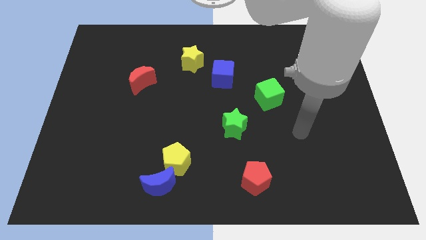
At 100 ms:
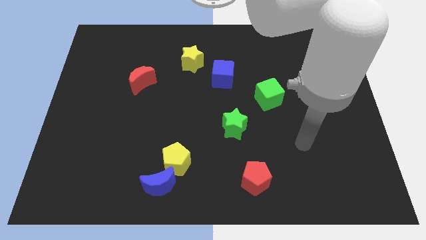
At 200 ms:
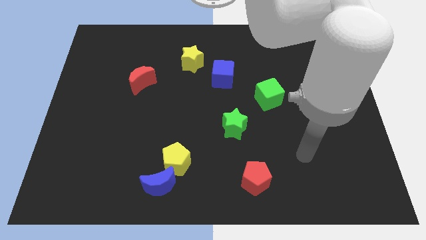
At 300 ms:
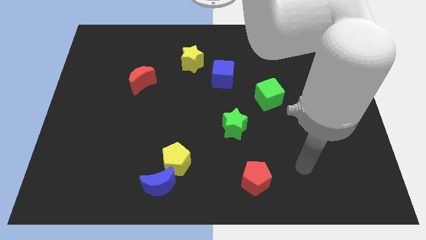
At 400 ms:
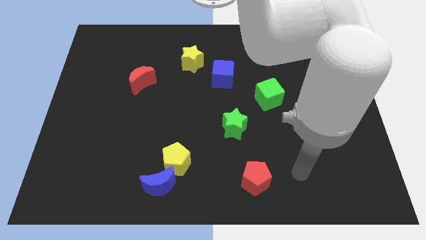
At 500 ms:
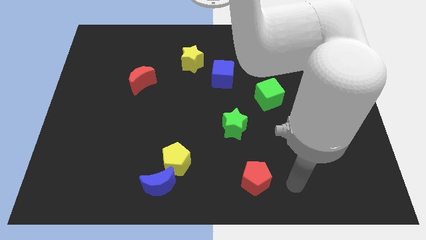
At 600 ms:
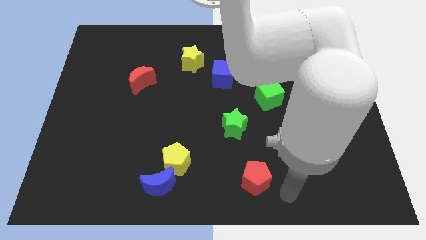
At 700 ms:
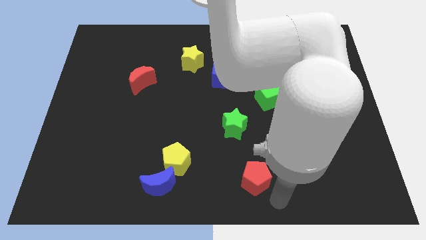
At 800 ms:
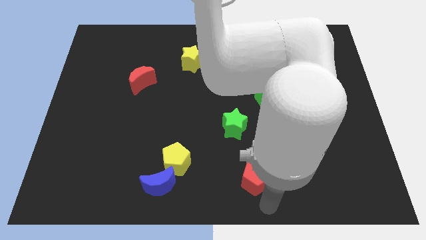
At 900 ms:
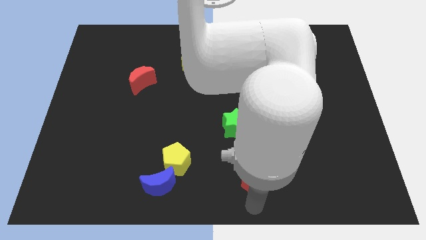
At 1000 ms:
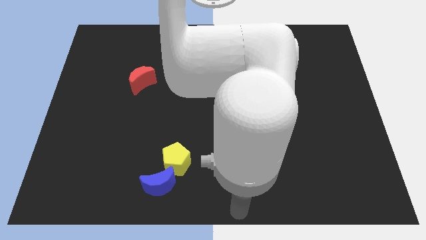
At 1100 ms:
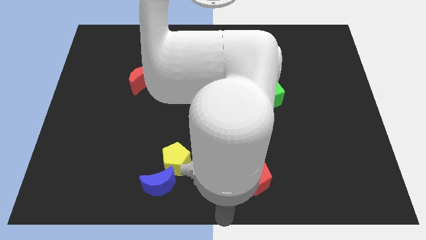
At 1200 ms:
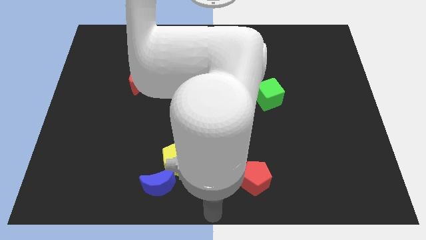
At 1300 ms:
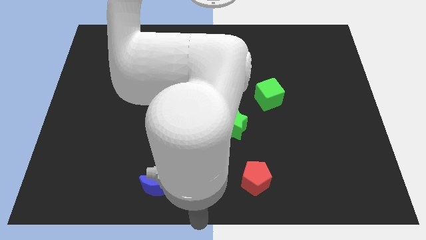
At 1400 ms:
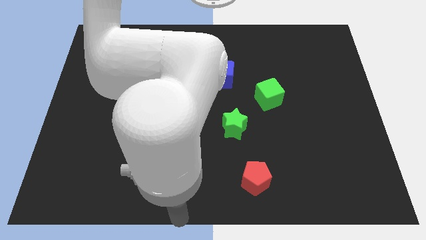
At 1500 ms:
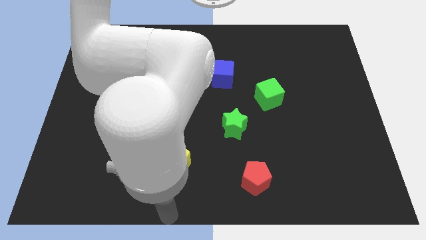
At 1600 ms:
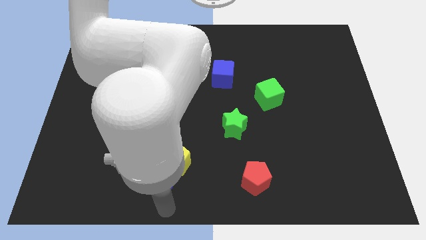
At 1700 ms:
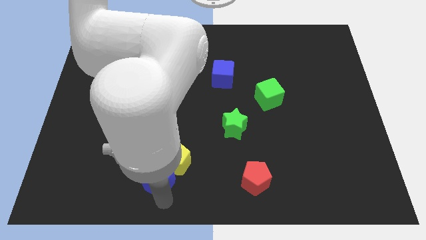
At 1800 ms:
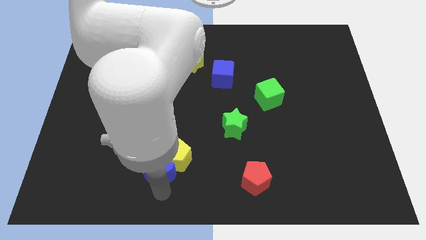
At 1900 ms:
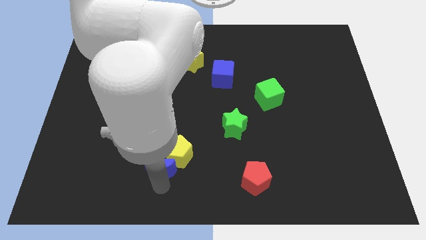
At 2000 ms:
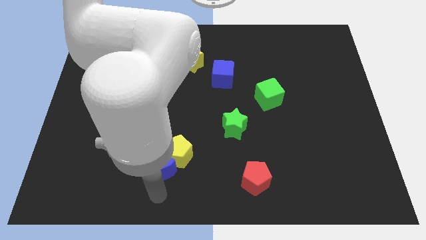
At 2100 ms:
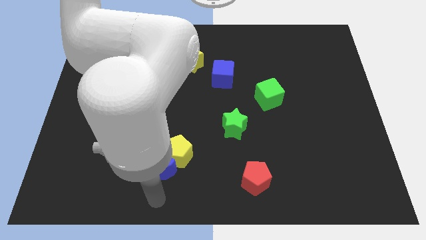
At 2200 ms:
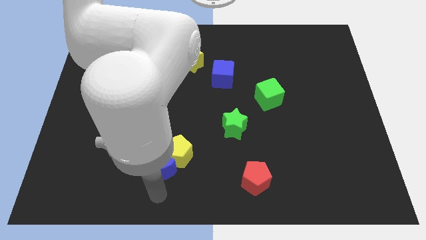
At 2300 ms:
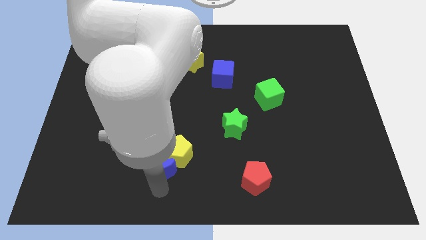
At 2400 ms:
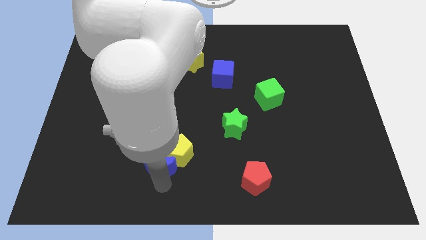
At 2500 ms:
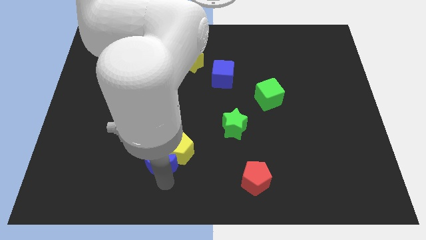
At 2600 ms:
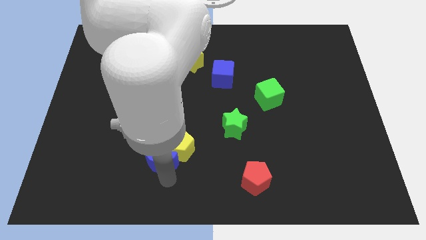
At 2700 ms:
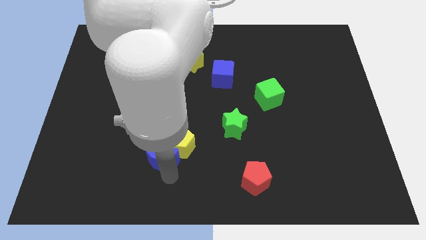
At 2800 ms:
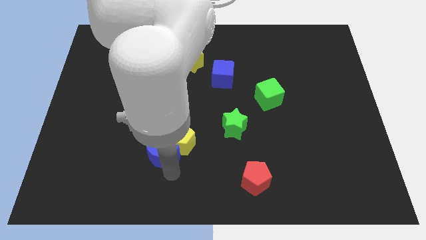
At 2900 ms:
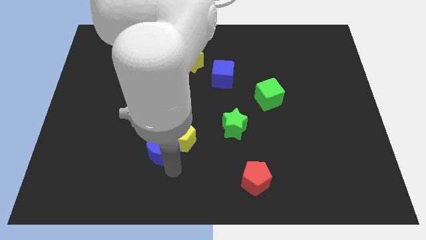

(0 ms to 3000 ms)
slide the blue moon upwards slightly

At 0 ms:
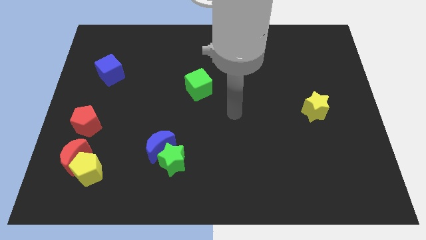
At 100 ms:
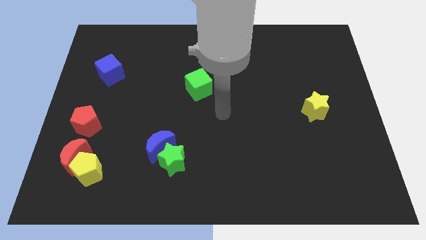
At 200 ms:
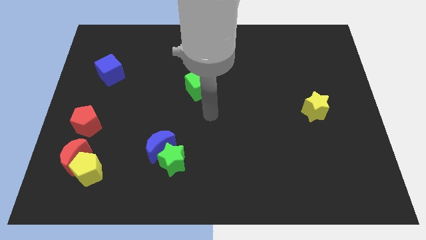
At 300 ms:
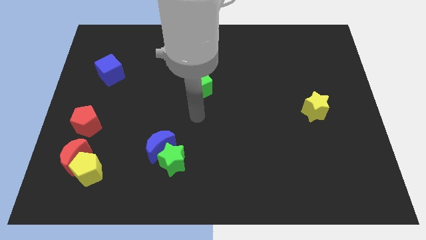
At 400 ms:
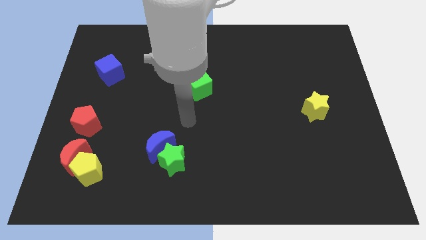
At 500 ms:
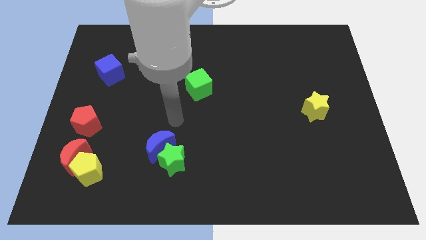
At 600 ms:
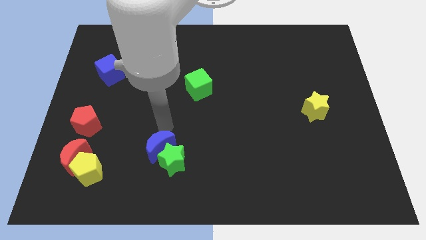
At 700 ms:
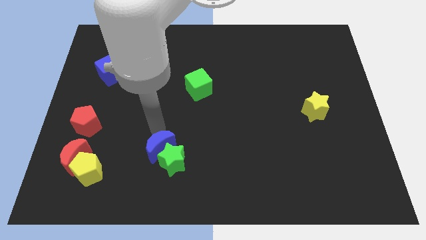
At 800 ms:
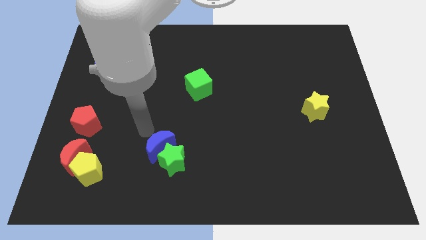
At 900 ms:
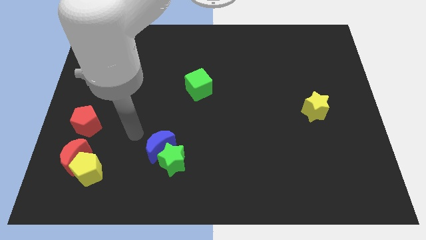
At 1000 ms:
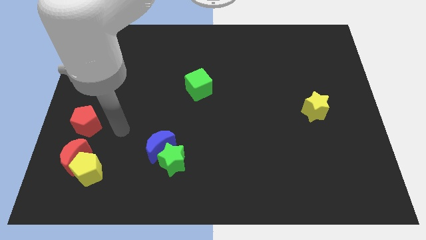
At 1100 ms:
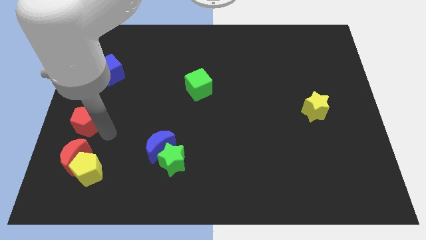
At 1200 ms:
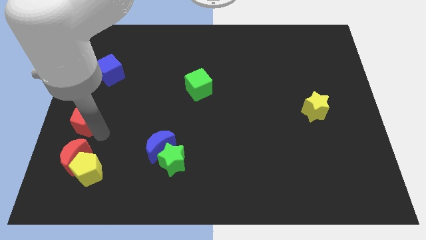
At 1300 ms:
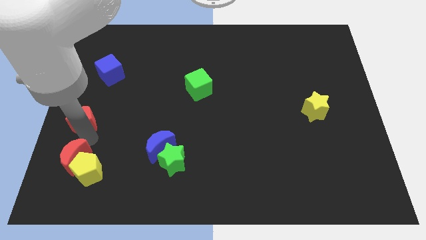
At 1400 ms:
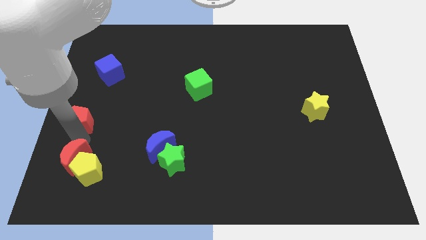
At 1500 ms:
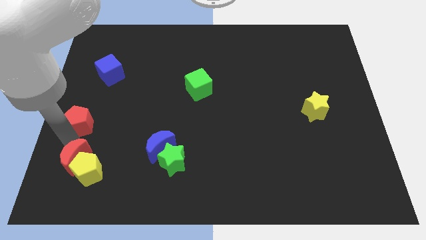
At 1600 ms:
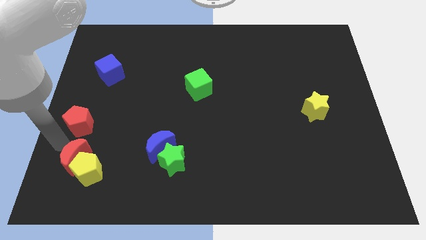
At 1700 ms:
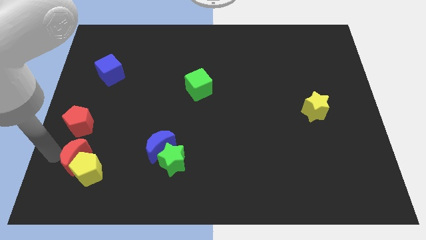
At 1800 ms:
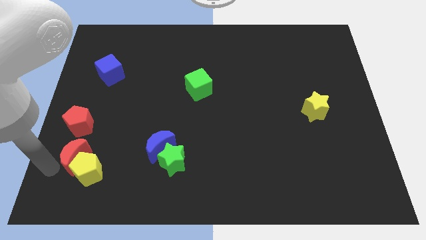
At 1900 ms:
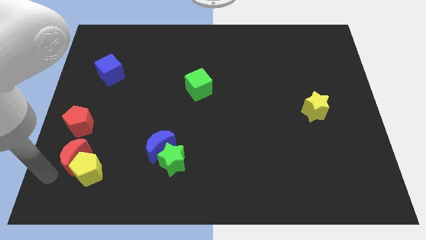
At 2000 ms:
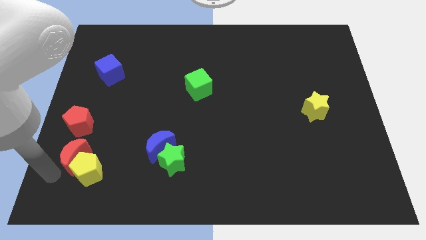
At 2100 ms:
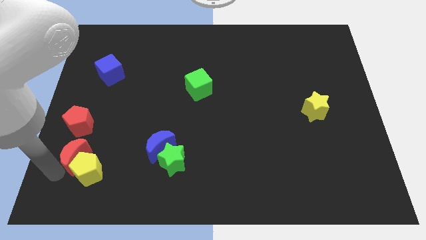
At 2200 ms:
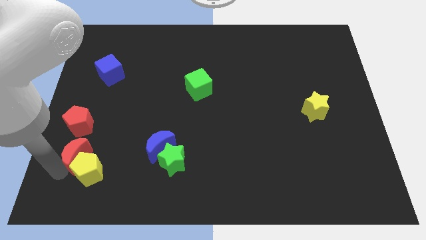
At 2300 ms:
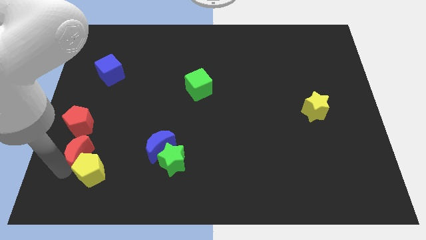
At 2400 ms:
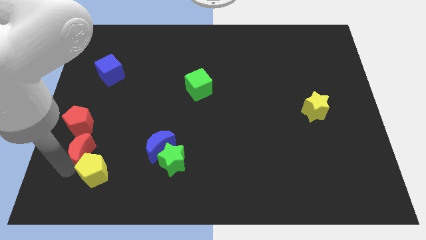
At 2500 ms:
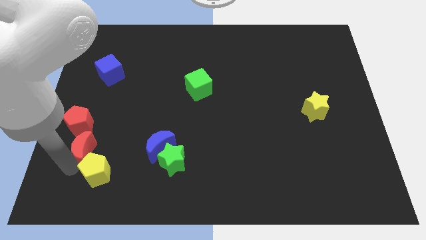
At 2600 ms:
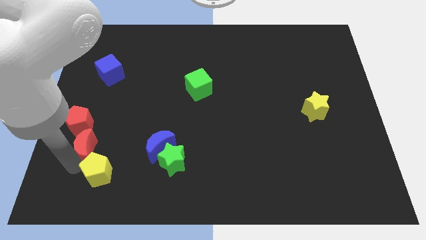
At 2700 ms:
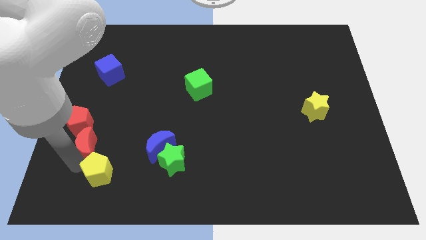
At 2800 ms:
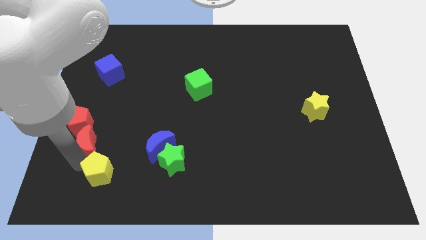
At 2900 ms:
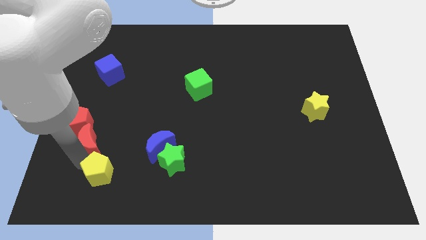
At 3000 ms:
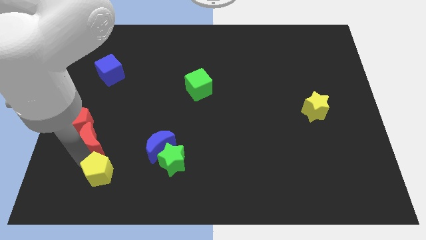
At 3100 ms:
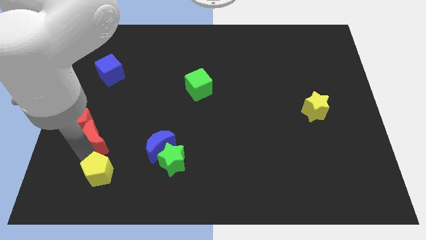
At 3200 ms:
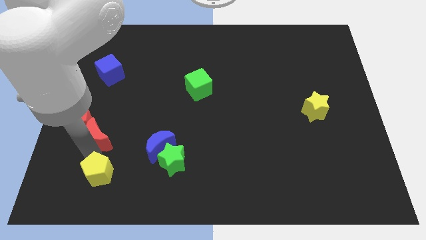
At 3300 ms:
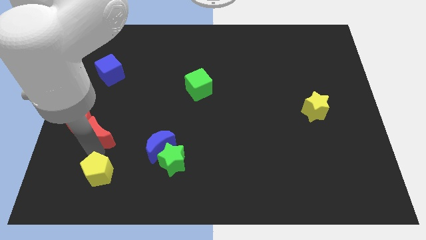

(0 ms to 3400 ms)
slightly slide the red moon diagonally up and to the right

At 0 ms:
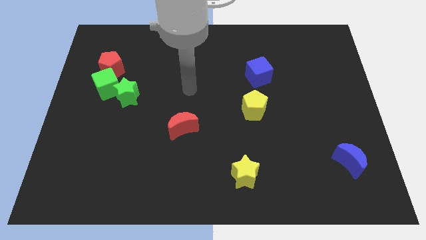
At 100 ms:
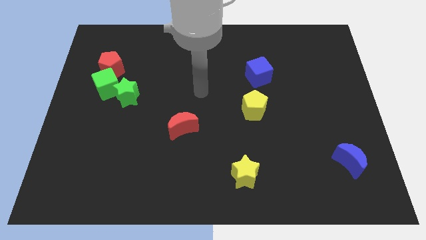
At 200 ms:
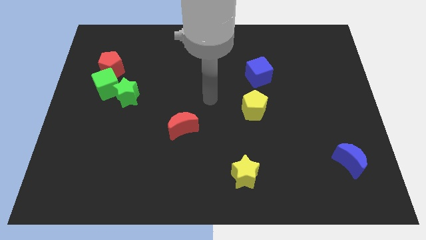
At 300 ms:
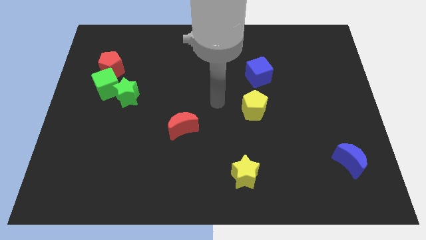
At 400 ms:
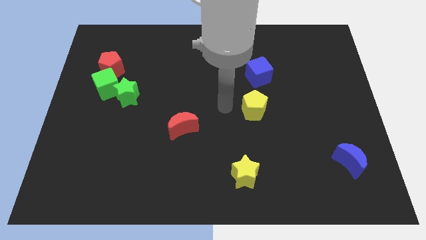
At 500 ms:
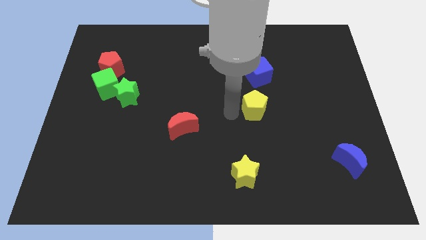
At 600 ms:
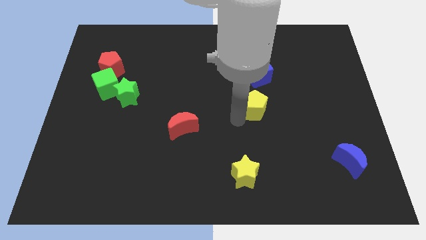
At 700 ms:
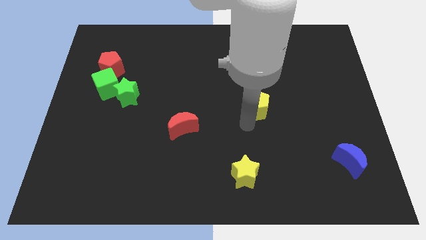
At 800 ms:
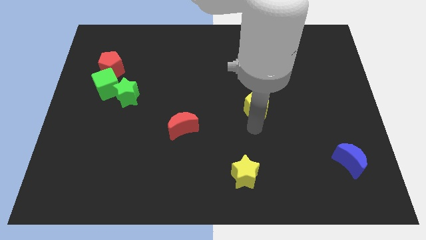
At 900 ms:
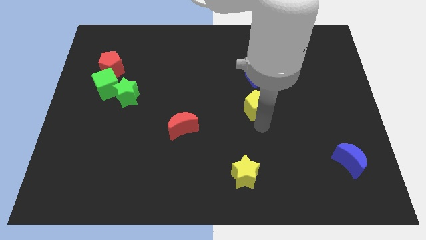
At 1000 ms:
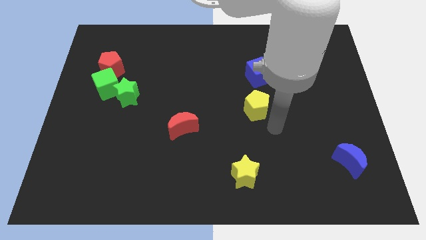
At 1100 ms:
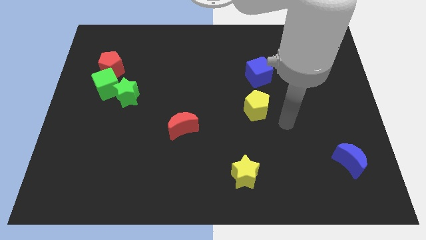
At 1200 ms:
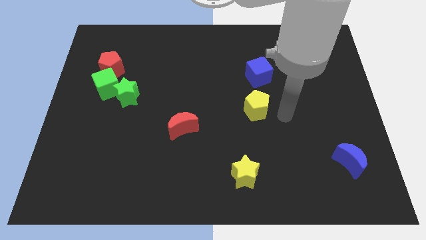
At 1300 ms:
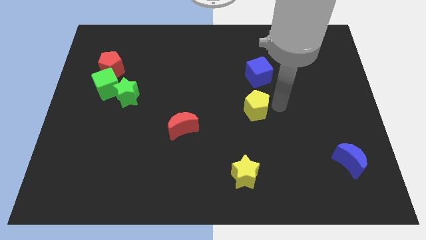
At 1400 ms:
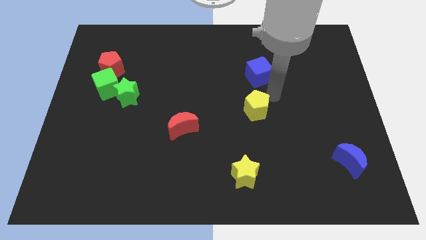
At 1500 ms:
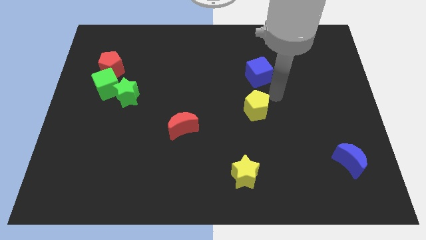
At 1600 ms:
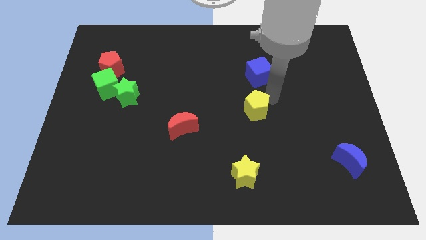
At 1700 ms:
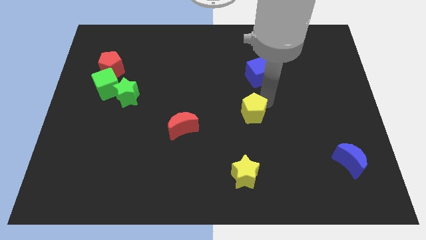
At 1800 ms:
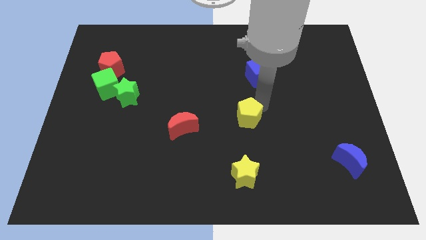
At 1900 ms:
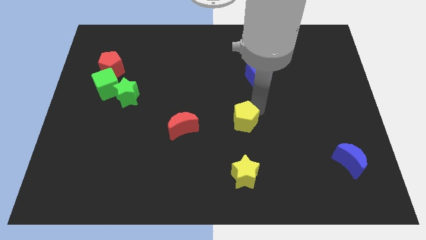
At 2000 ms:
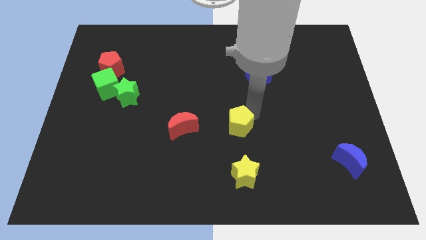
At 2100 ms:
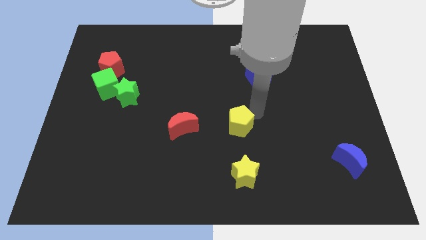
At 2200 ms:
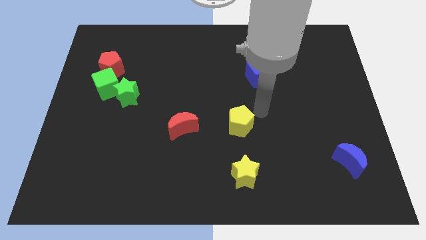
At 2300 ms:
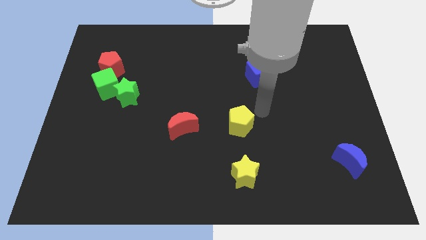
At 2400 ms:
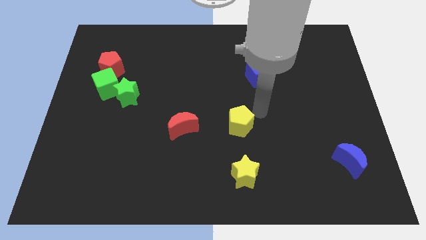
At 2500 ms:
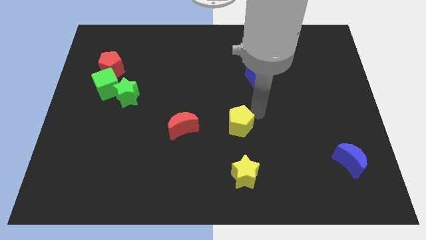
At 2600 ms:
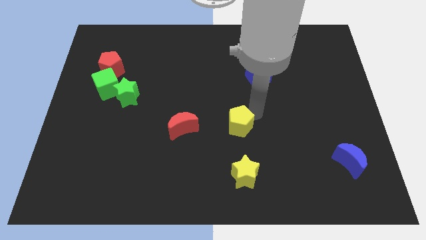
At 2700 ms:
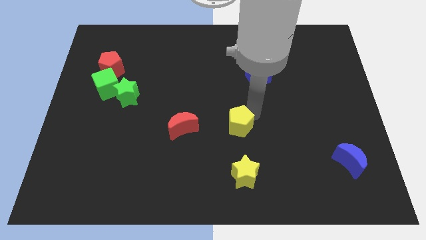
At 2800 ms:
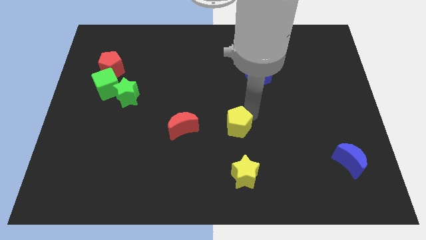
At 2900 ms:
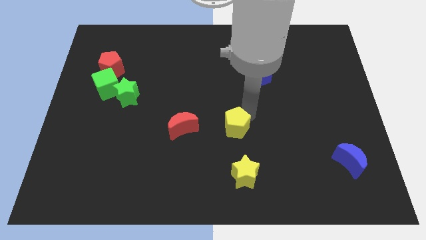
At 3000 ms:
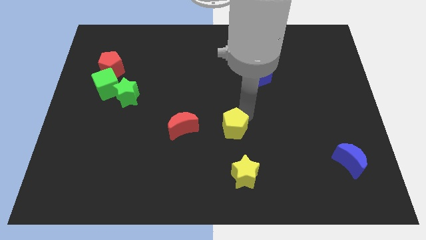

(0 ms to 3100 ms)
slightly move the yellow pentagon down and to the left
